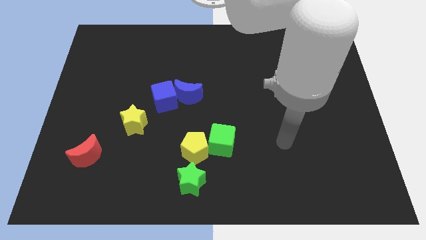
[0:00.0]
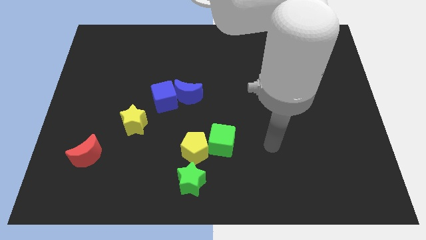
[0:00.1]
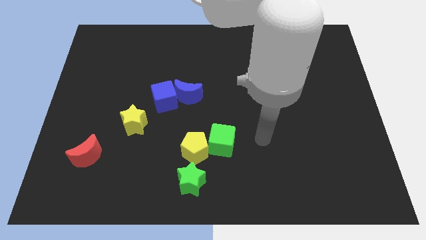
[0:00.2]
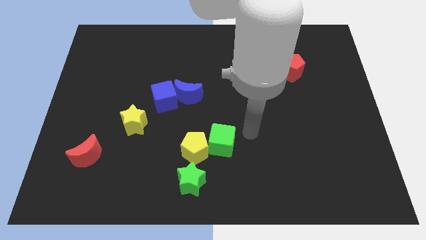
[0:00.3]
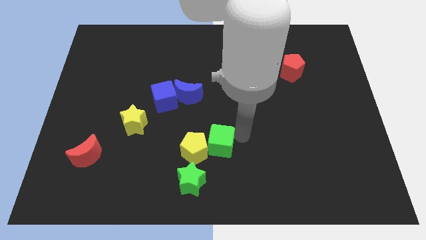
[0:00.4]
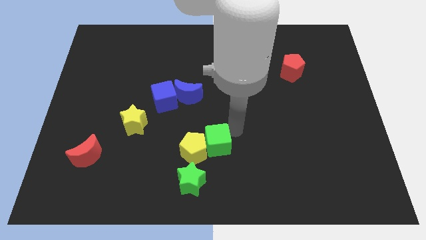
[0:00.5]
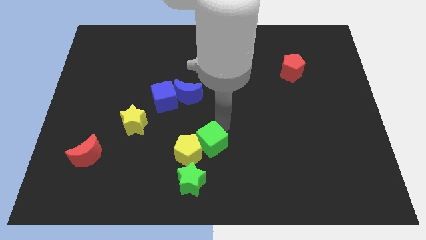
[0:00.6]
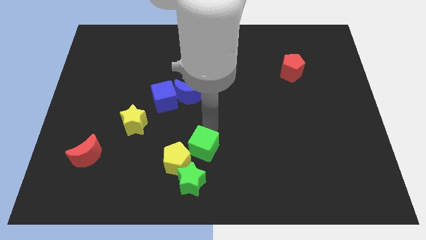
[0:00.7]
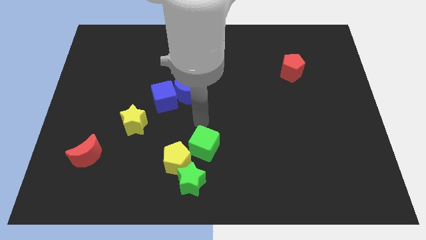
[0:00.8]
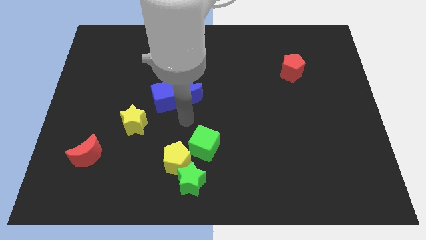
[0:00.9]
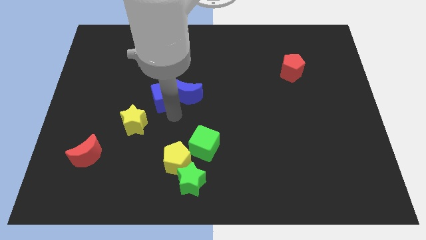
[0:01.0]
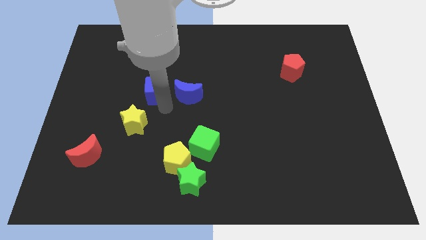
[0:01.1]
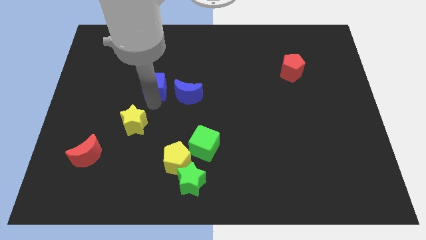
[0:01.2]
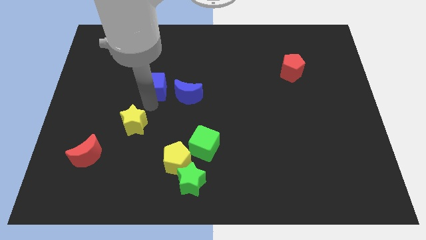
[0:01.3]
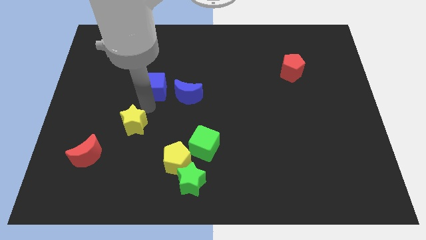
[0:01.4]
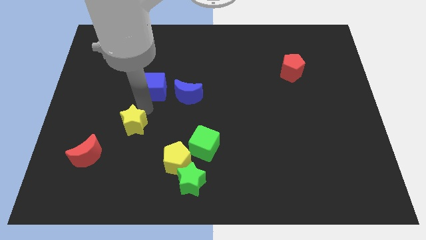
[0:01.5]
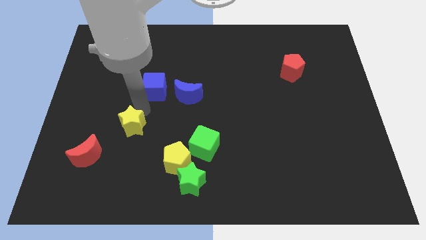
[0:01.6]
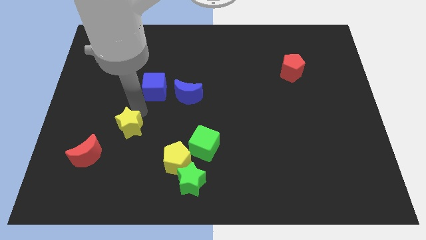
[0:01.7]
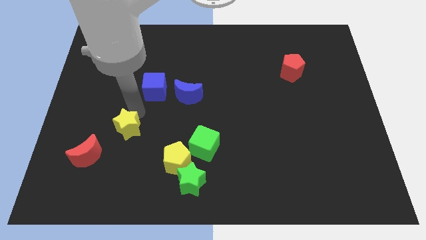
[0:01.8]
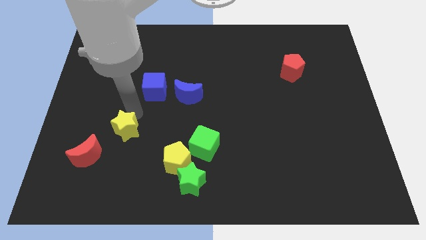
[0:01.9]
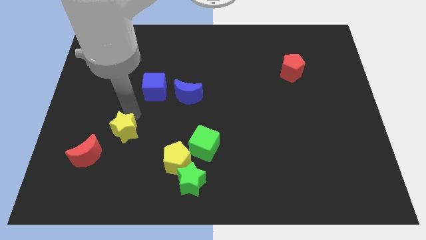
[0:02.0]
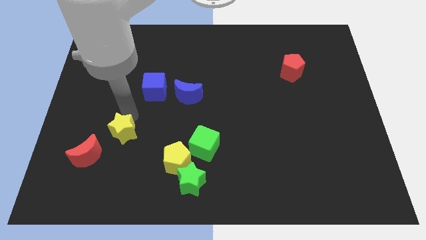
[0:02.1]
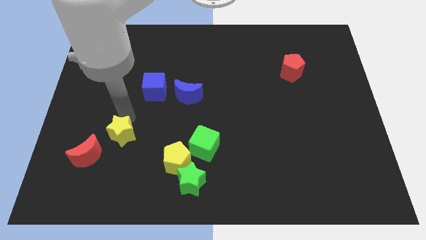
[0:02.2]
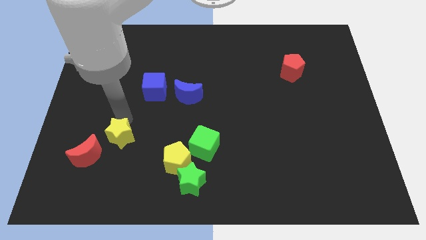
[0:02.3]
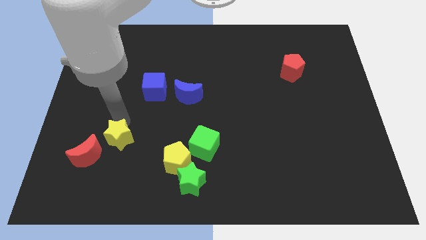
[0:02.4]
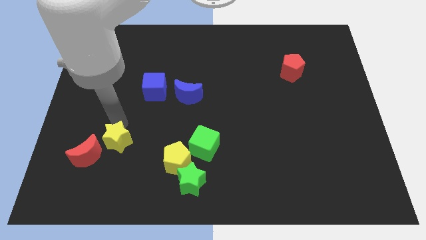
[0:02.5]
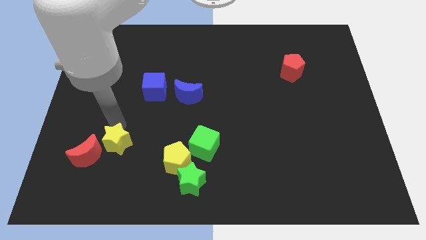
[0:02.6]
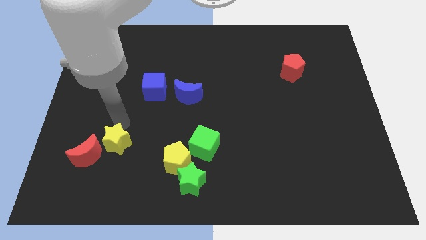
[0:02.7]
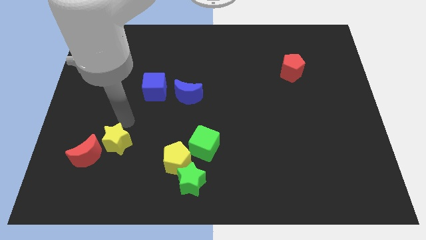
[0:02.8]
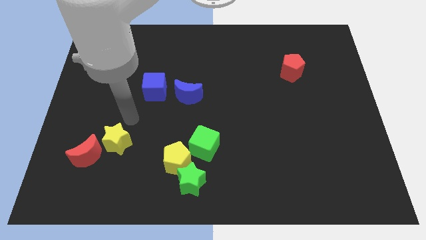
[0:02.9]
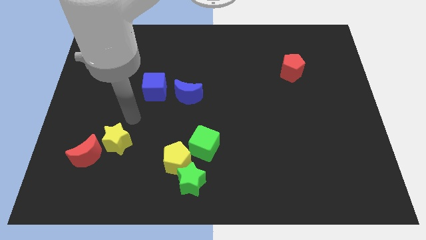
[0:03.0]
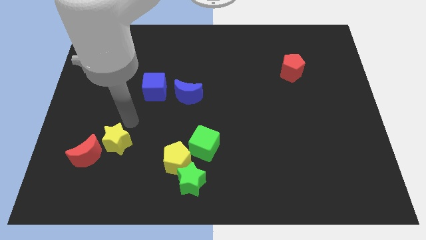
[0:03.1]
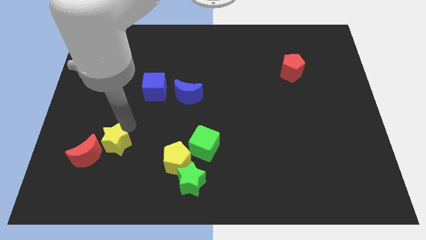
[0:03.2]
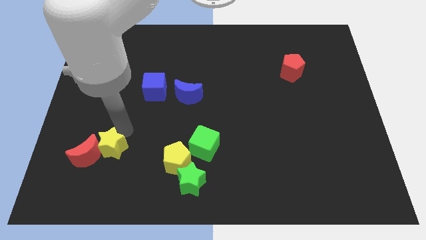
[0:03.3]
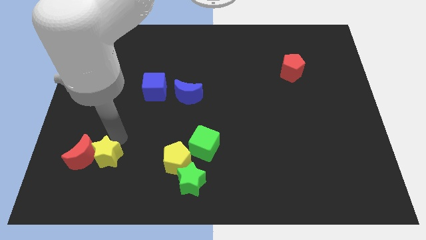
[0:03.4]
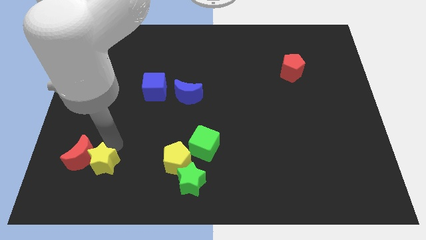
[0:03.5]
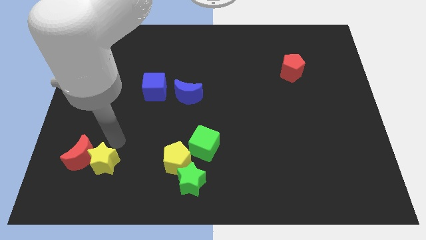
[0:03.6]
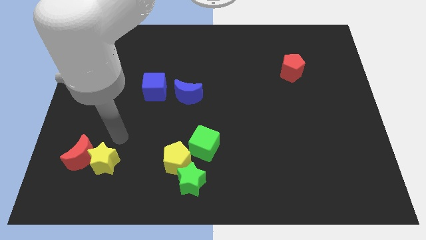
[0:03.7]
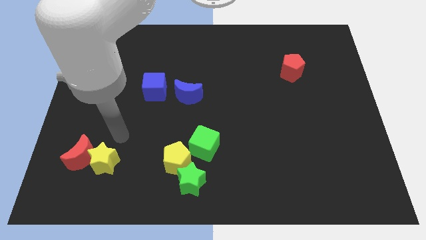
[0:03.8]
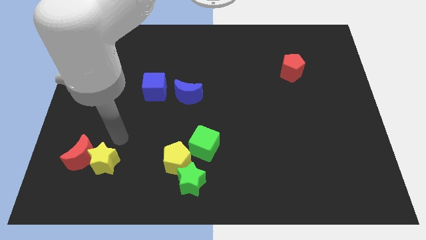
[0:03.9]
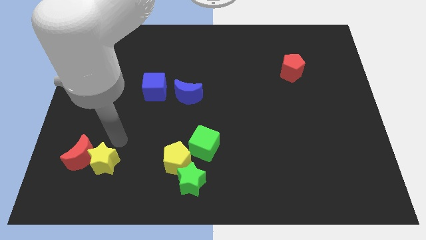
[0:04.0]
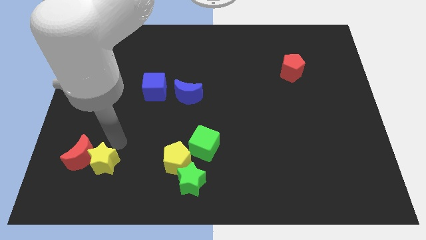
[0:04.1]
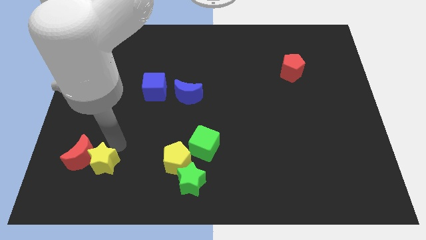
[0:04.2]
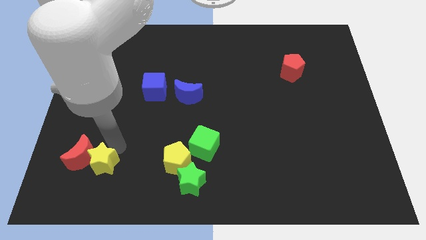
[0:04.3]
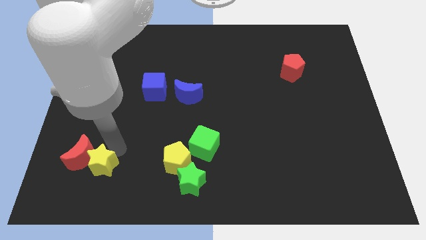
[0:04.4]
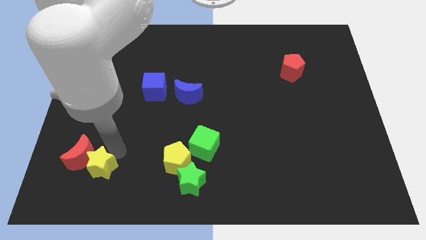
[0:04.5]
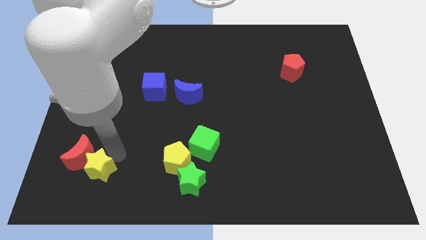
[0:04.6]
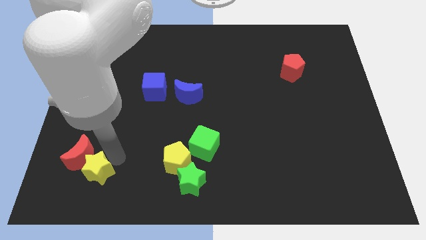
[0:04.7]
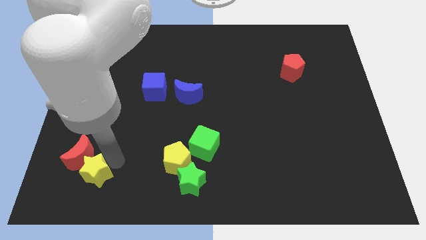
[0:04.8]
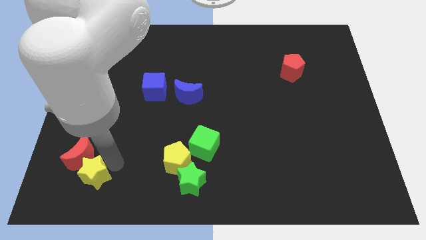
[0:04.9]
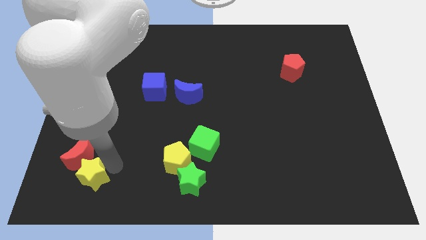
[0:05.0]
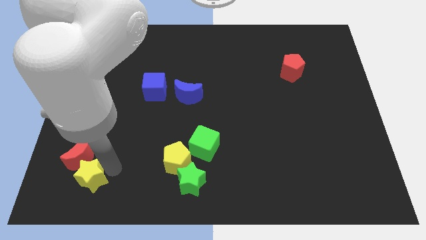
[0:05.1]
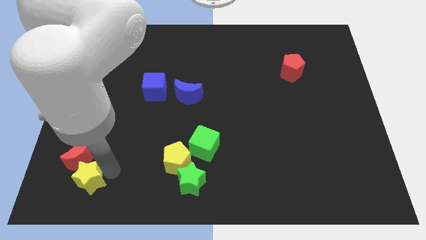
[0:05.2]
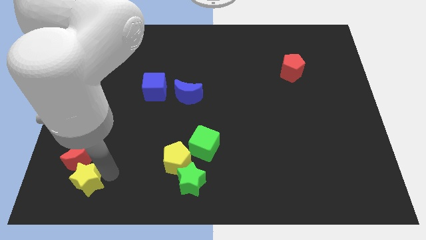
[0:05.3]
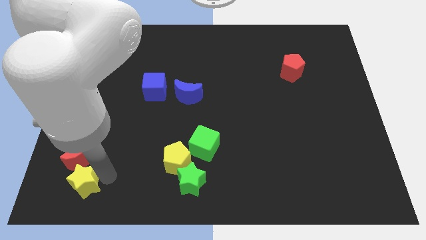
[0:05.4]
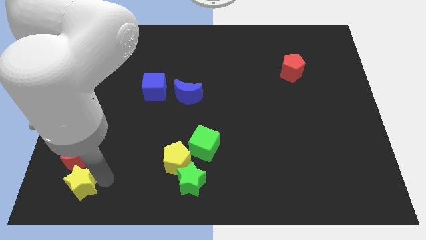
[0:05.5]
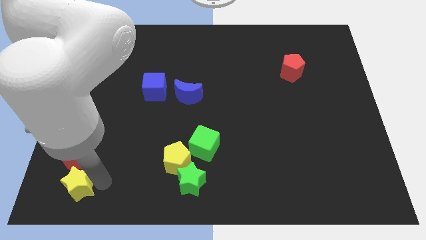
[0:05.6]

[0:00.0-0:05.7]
move the yellow star to the bottom left corner
